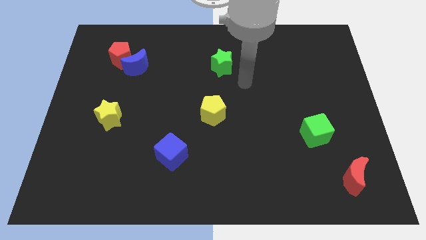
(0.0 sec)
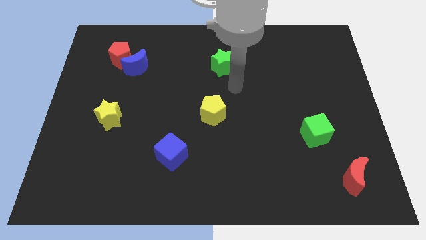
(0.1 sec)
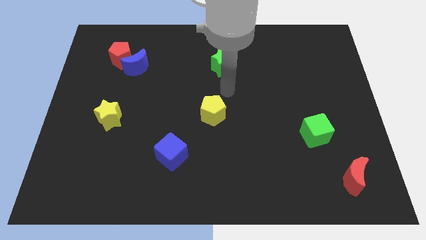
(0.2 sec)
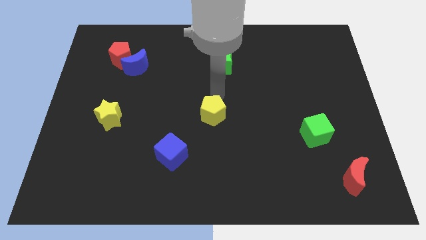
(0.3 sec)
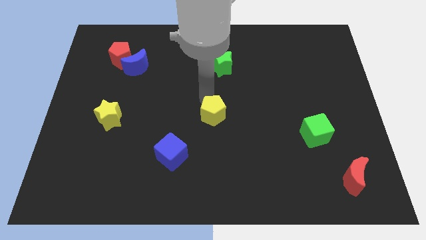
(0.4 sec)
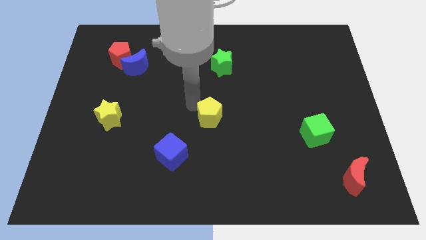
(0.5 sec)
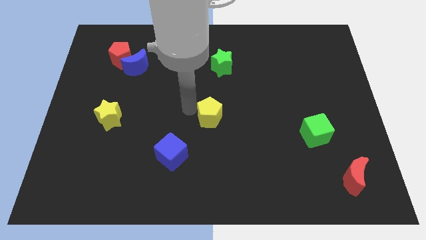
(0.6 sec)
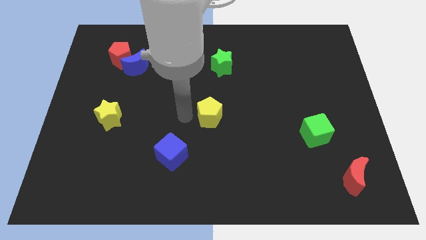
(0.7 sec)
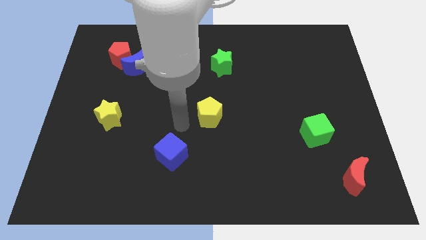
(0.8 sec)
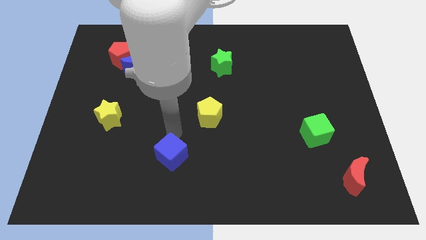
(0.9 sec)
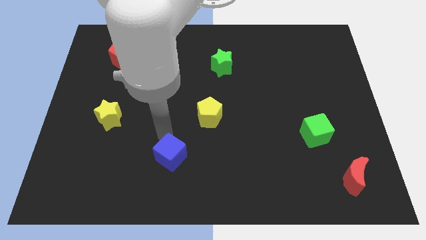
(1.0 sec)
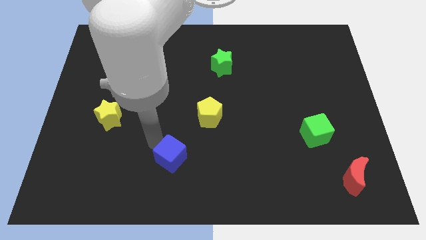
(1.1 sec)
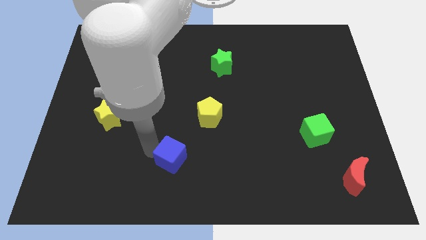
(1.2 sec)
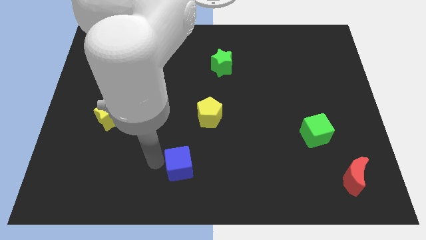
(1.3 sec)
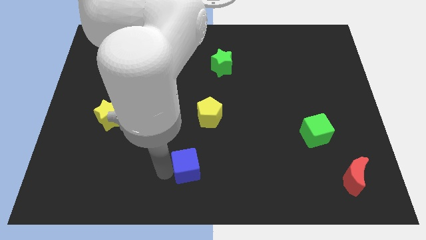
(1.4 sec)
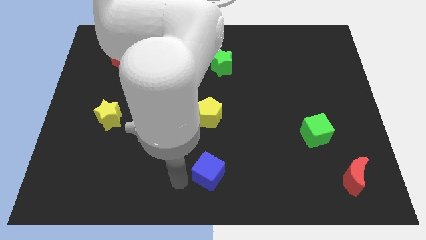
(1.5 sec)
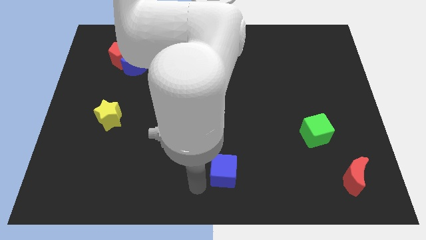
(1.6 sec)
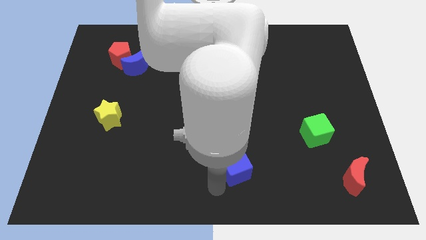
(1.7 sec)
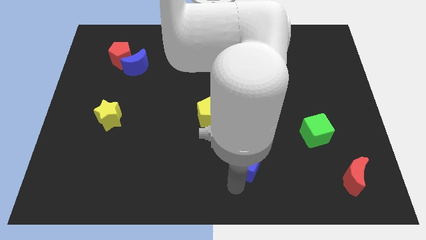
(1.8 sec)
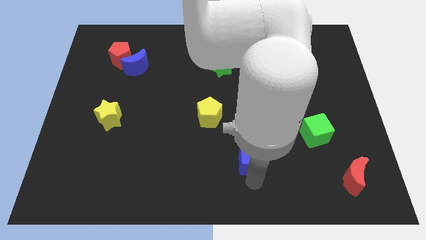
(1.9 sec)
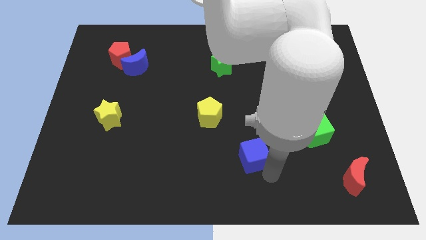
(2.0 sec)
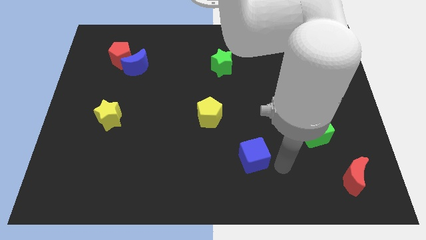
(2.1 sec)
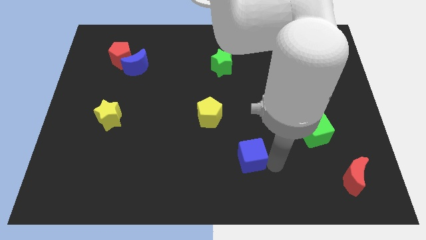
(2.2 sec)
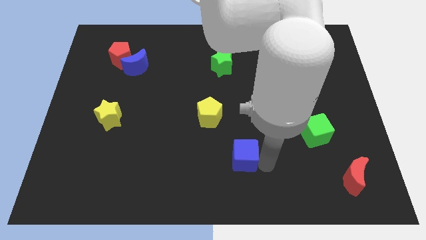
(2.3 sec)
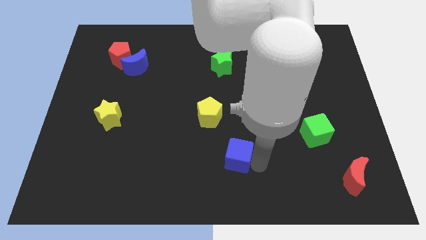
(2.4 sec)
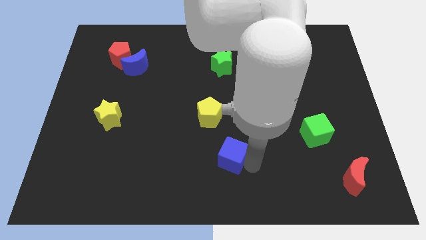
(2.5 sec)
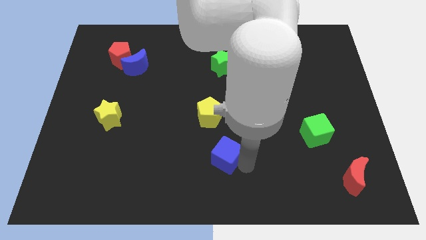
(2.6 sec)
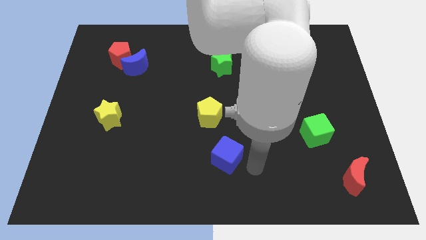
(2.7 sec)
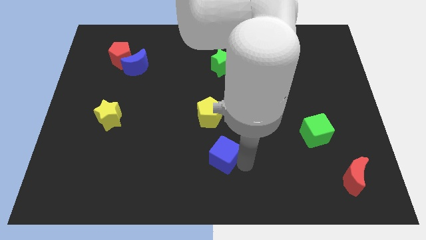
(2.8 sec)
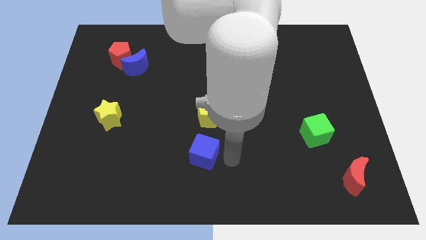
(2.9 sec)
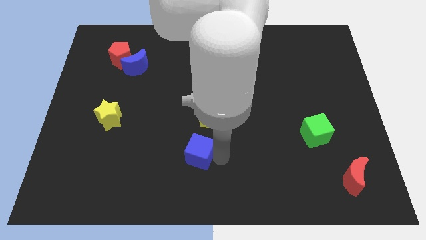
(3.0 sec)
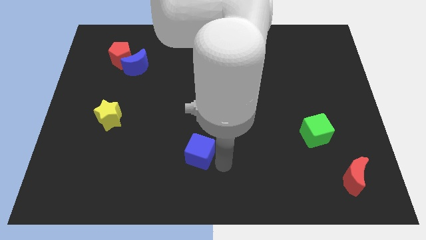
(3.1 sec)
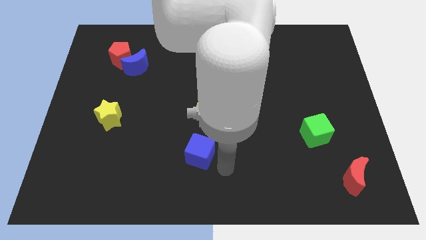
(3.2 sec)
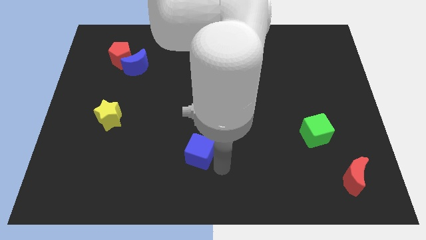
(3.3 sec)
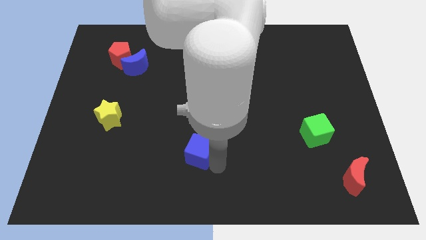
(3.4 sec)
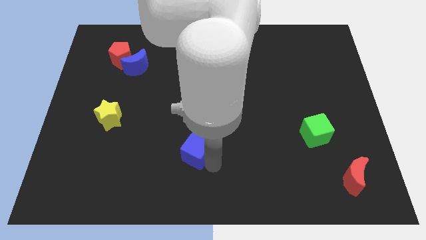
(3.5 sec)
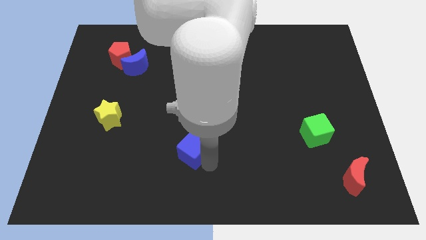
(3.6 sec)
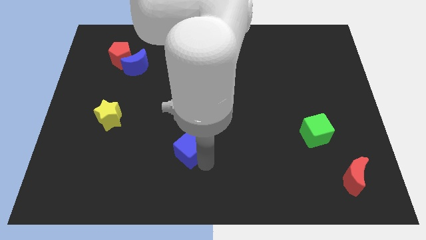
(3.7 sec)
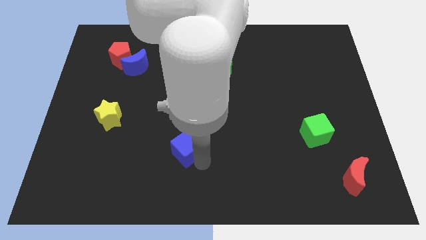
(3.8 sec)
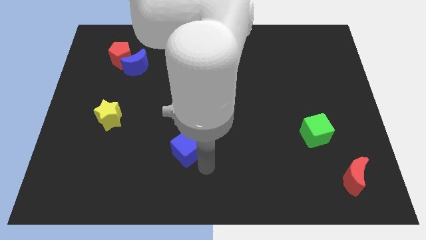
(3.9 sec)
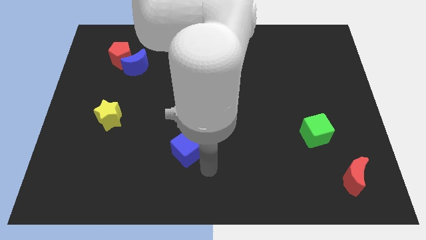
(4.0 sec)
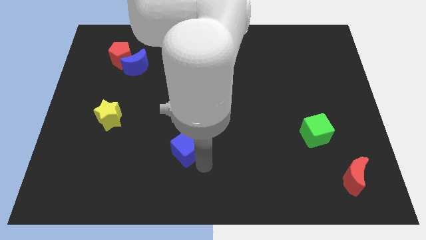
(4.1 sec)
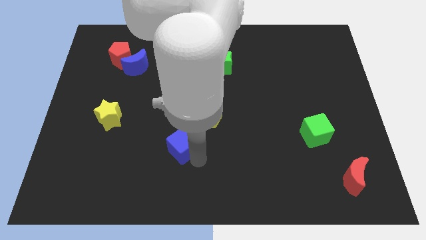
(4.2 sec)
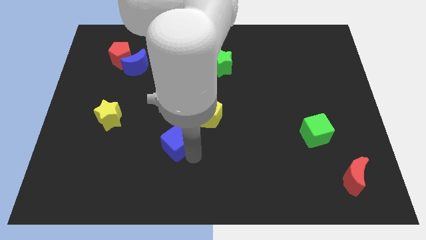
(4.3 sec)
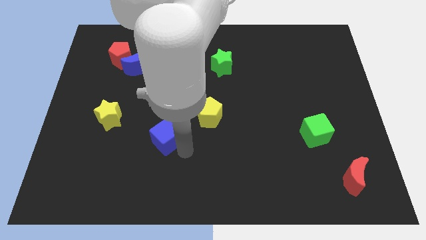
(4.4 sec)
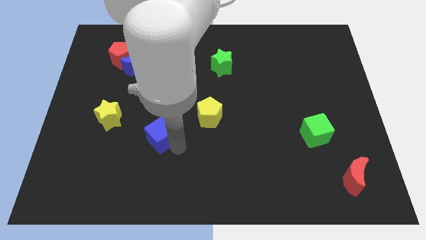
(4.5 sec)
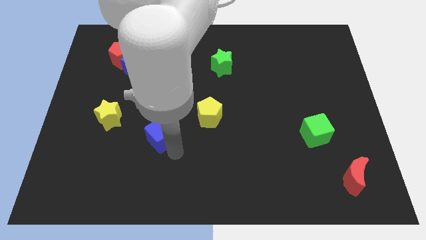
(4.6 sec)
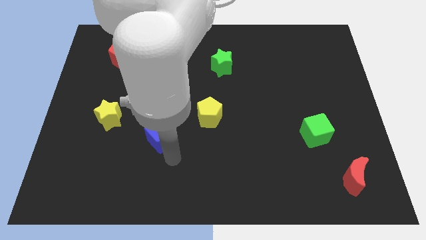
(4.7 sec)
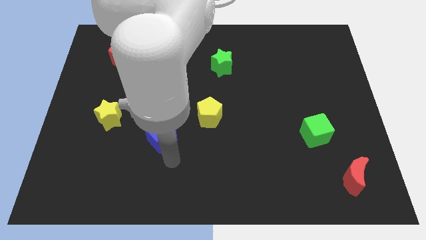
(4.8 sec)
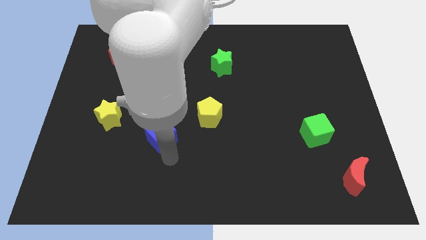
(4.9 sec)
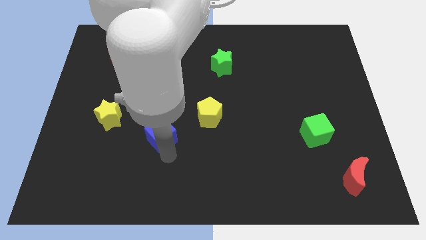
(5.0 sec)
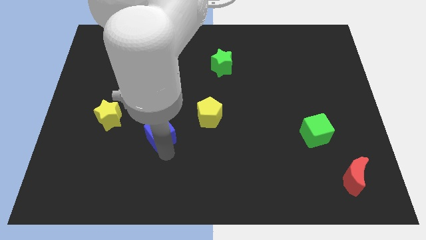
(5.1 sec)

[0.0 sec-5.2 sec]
push the blue cube to the right side of the yellow star
